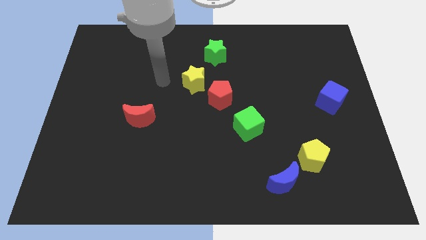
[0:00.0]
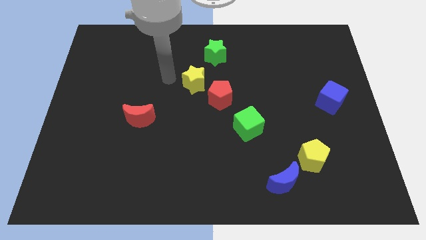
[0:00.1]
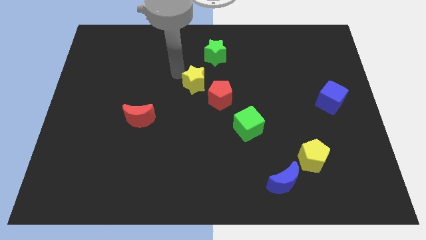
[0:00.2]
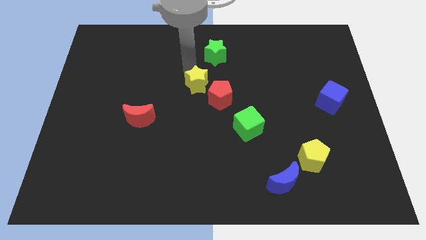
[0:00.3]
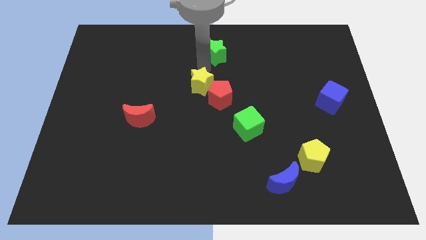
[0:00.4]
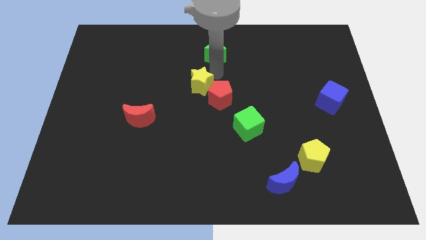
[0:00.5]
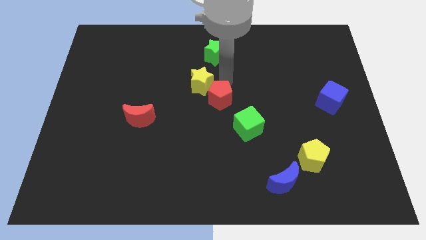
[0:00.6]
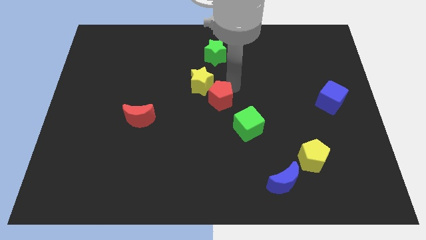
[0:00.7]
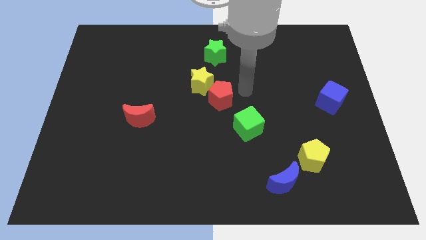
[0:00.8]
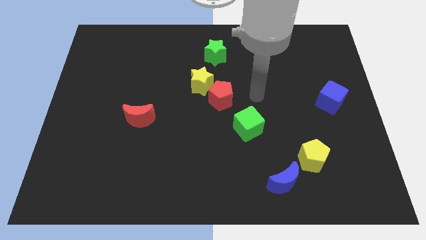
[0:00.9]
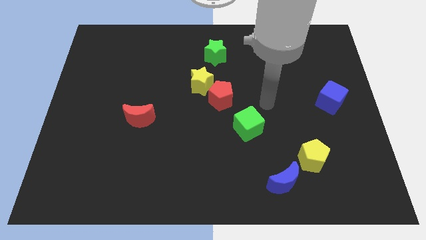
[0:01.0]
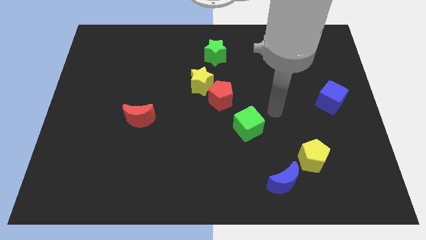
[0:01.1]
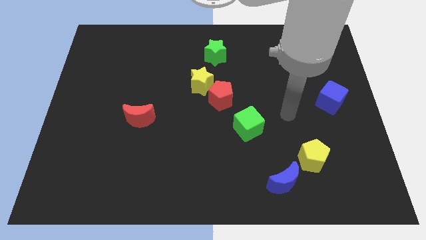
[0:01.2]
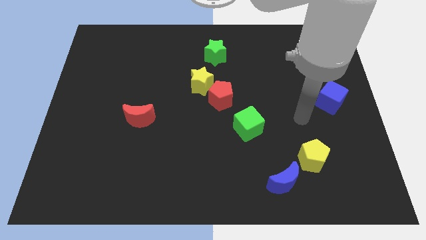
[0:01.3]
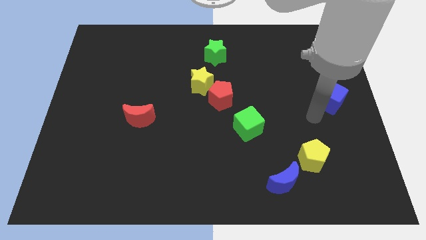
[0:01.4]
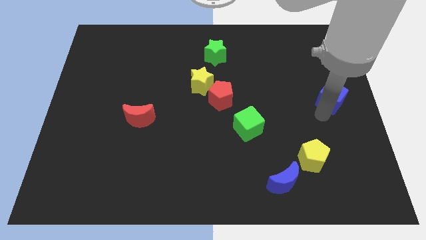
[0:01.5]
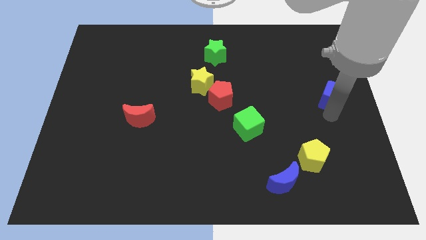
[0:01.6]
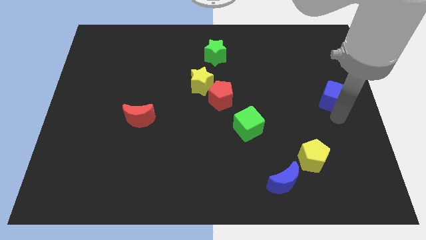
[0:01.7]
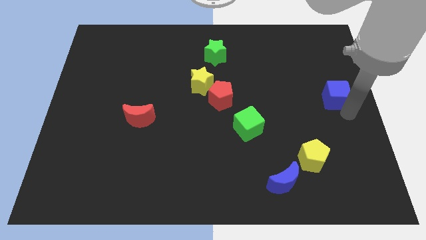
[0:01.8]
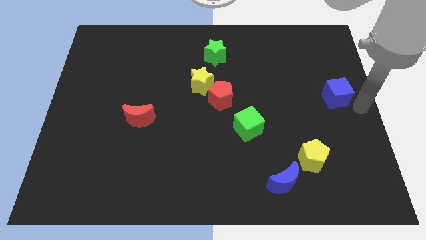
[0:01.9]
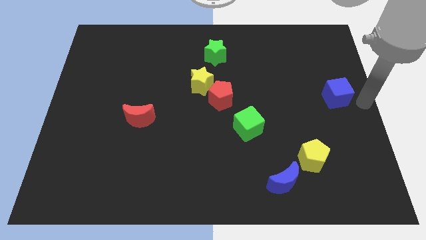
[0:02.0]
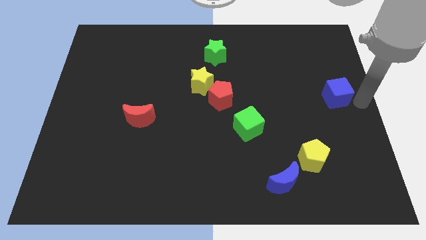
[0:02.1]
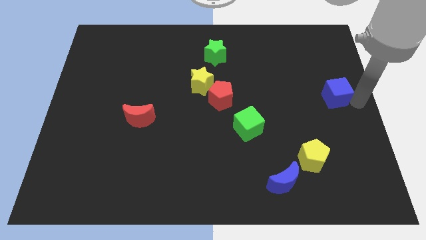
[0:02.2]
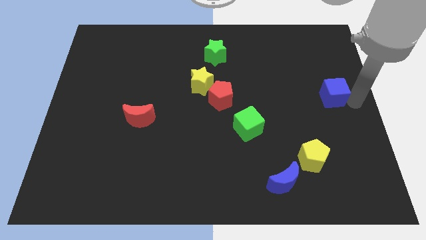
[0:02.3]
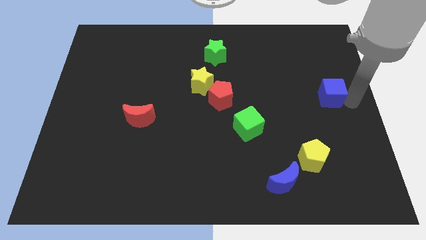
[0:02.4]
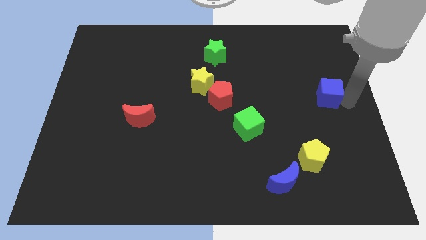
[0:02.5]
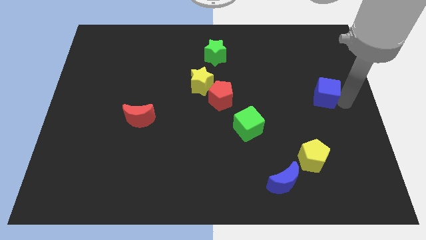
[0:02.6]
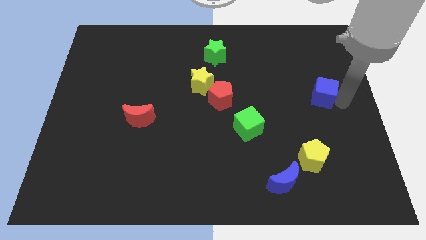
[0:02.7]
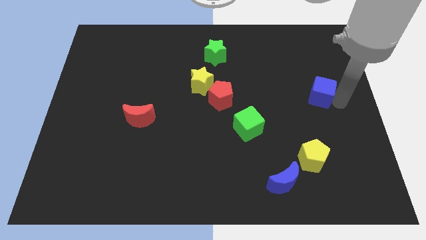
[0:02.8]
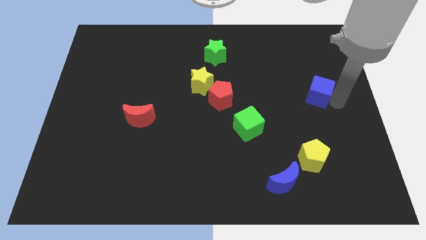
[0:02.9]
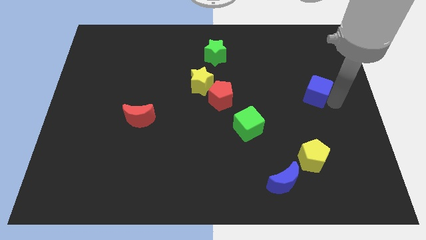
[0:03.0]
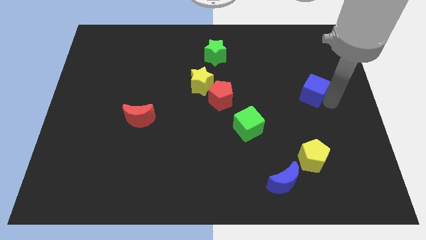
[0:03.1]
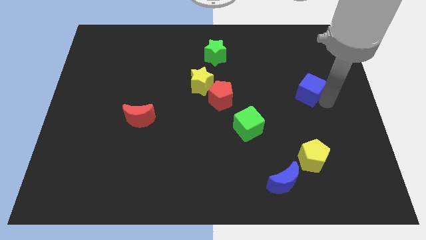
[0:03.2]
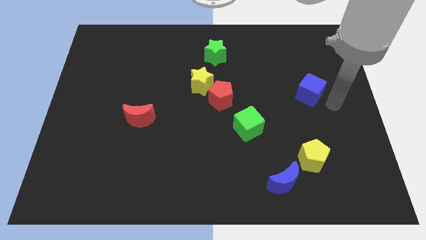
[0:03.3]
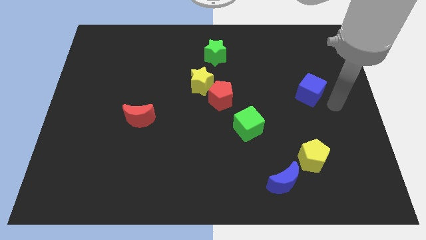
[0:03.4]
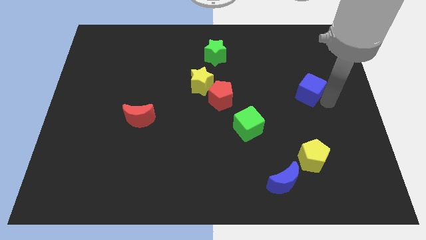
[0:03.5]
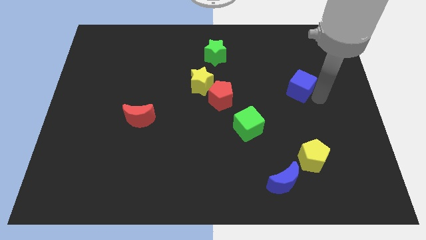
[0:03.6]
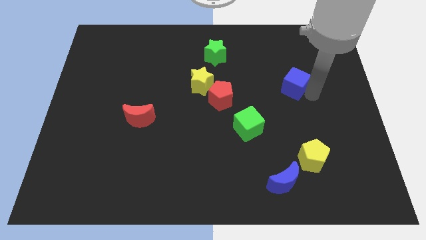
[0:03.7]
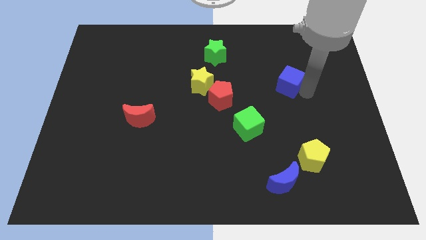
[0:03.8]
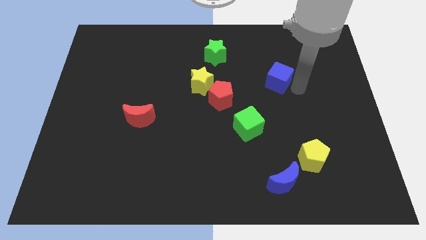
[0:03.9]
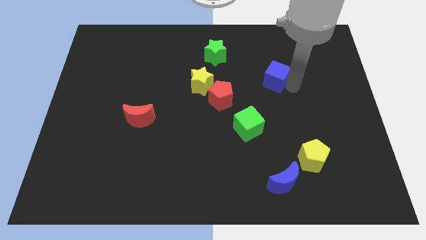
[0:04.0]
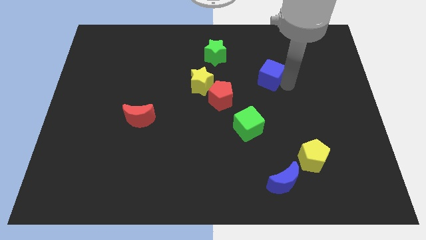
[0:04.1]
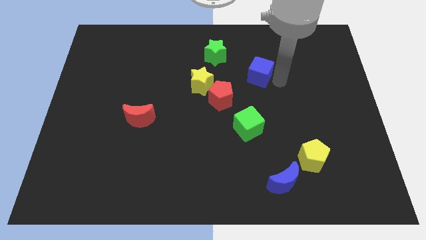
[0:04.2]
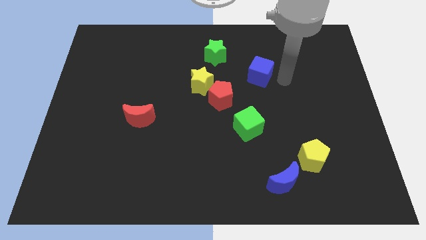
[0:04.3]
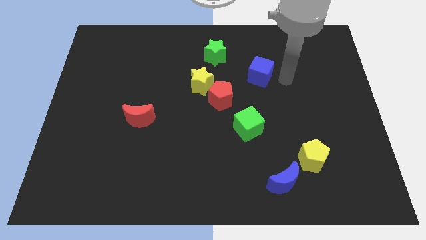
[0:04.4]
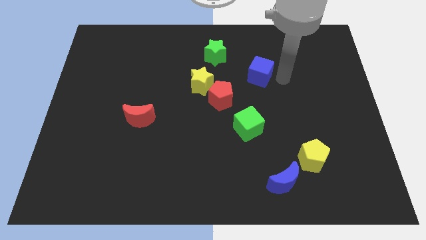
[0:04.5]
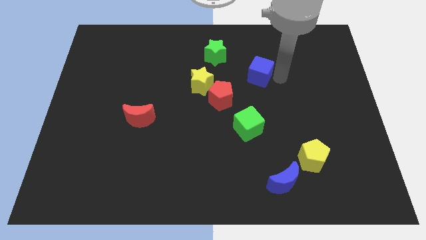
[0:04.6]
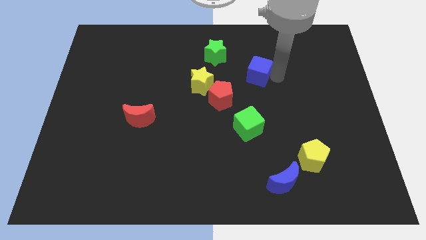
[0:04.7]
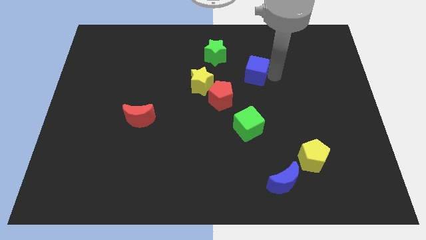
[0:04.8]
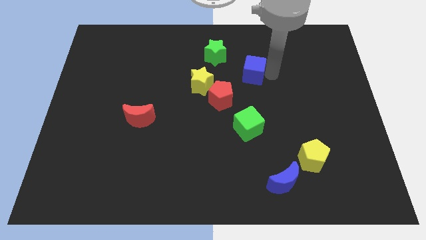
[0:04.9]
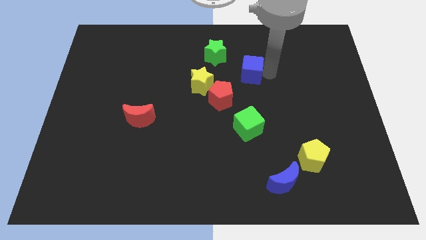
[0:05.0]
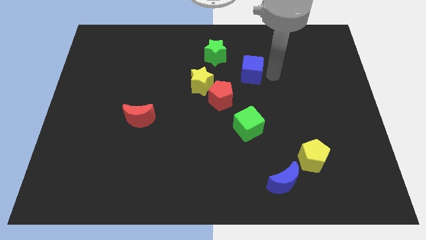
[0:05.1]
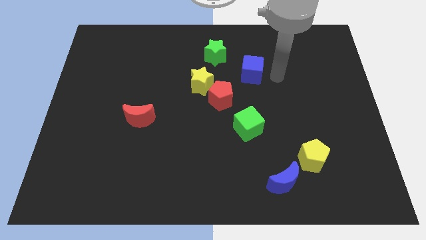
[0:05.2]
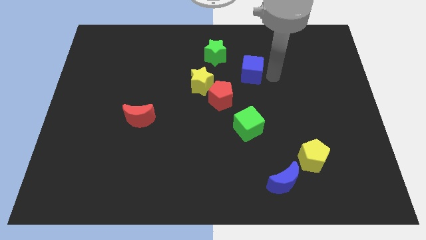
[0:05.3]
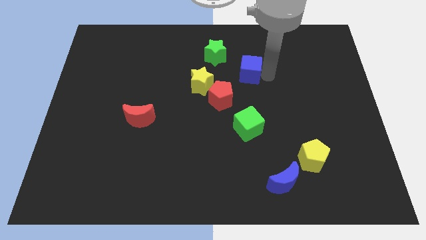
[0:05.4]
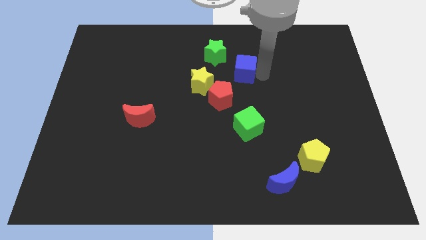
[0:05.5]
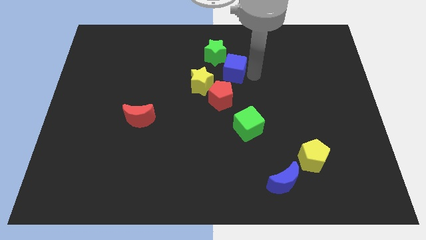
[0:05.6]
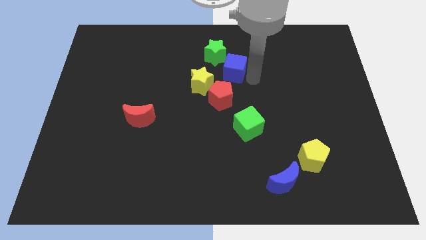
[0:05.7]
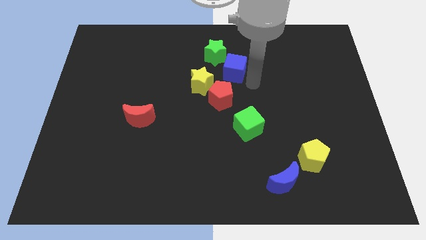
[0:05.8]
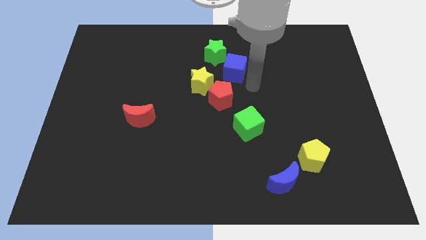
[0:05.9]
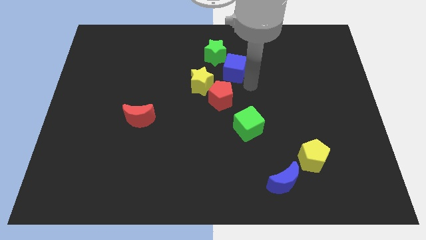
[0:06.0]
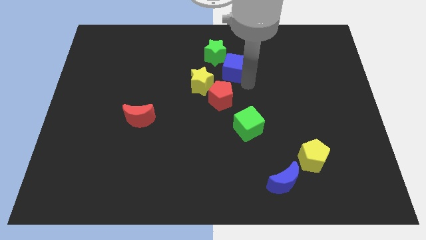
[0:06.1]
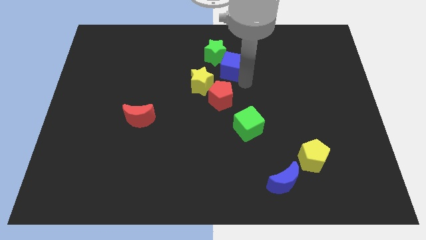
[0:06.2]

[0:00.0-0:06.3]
move the blue cube close to the green star

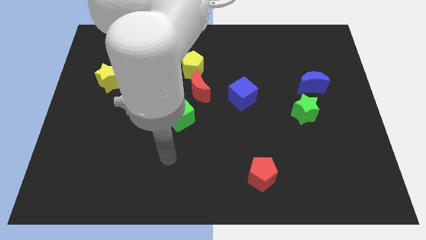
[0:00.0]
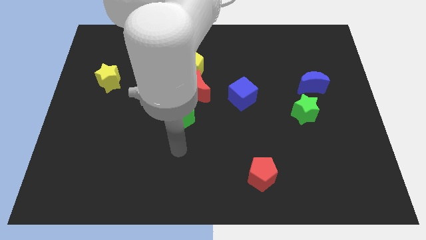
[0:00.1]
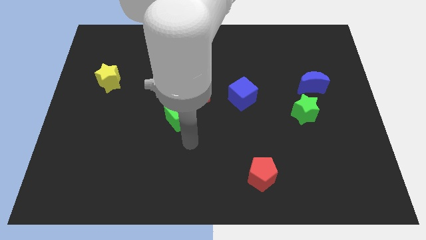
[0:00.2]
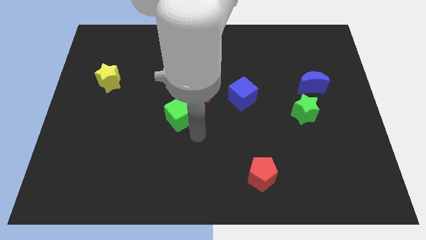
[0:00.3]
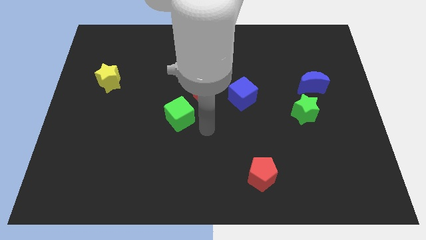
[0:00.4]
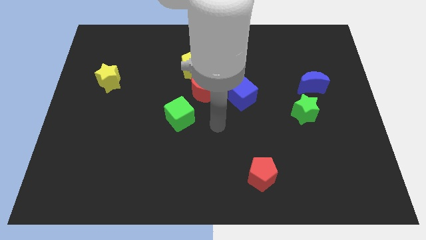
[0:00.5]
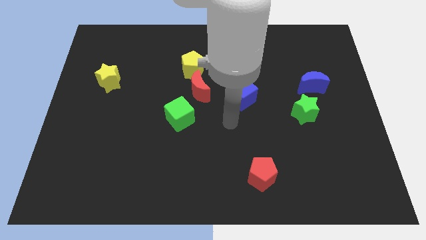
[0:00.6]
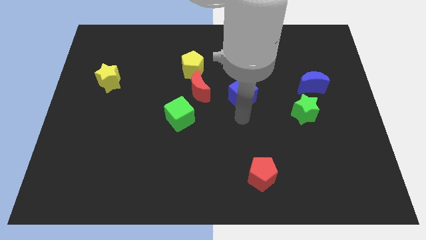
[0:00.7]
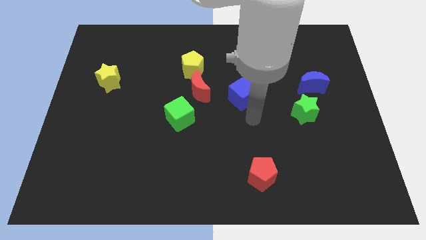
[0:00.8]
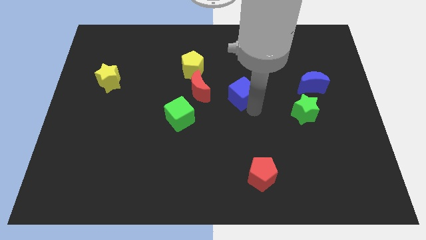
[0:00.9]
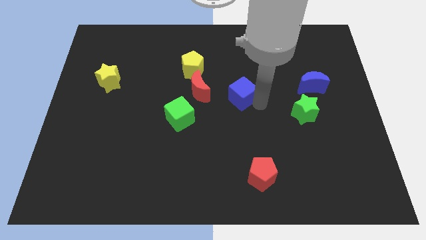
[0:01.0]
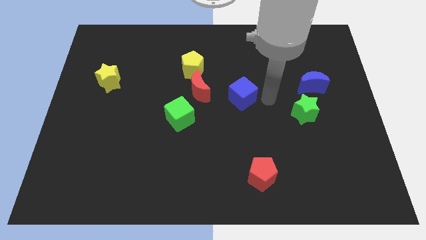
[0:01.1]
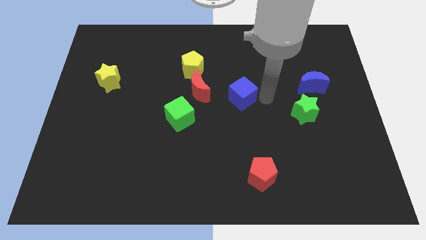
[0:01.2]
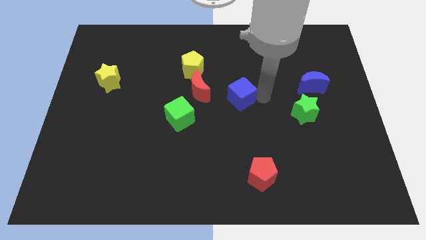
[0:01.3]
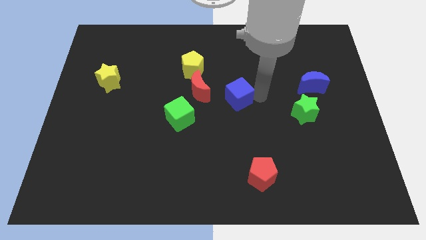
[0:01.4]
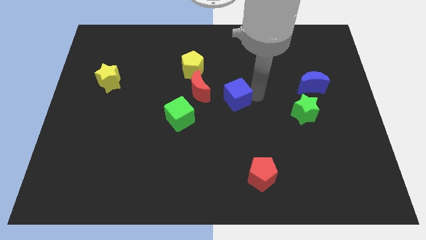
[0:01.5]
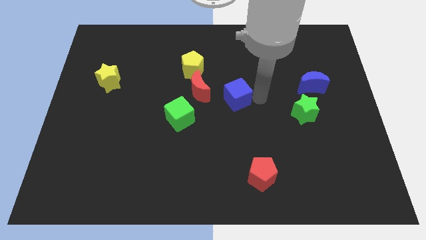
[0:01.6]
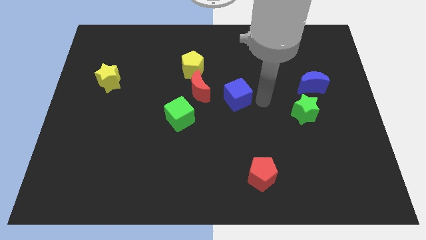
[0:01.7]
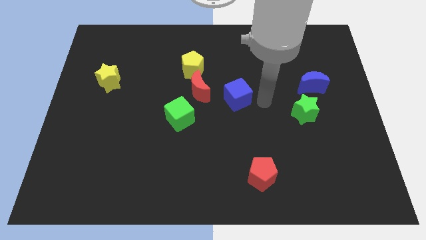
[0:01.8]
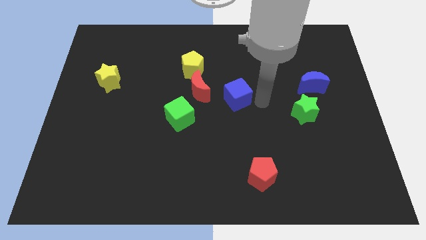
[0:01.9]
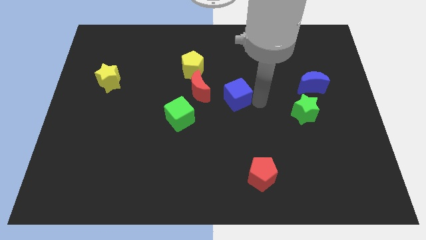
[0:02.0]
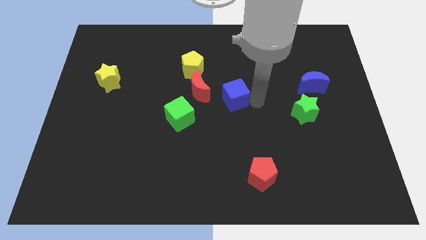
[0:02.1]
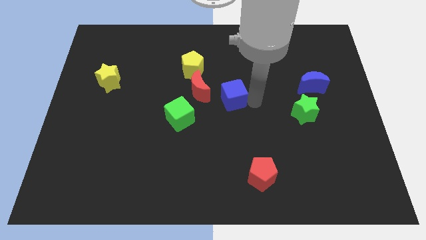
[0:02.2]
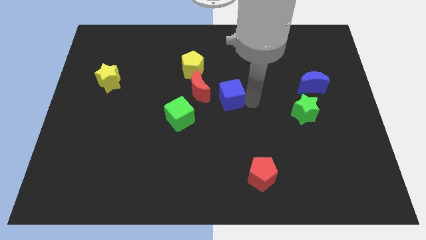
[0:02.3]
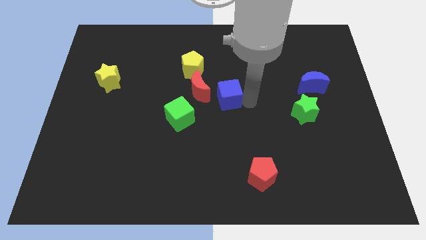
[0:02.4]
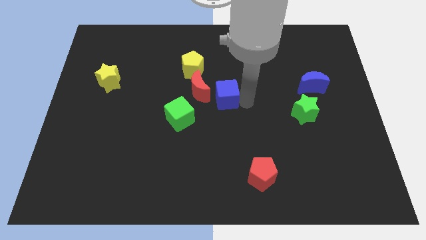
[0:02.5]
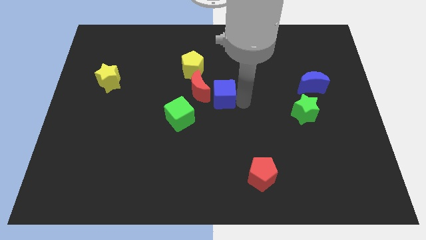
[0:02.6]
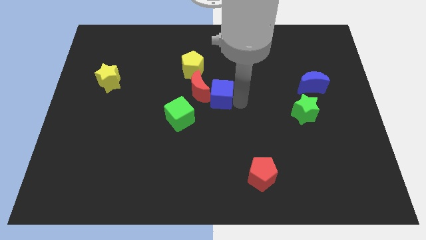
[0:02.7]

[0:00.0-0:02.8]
slide the blue cube to the red moon
